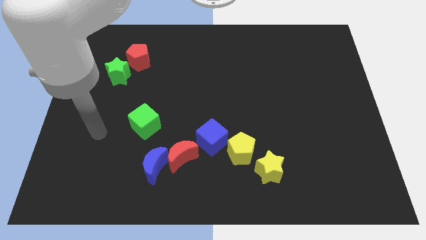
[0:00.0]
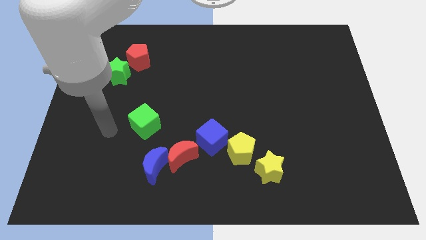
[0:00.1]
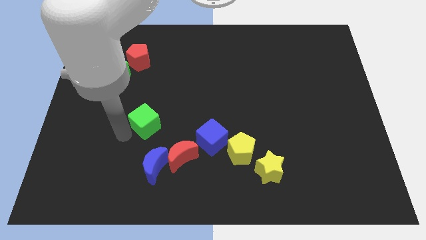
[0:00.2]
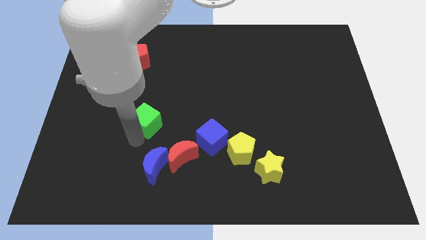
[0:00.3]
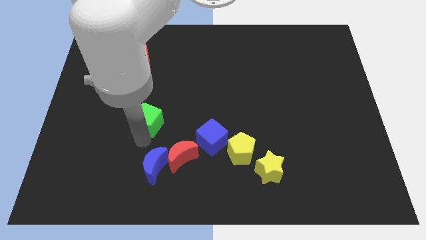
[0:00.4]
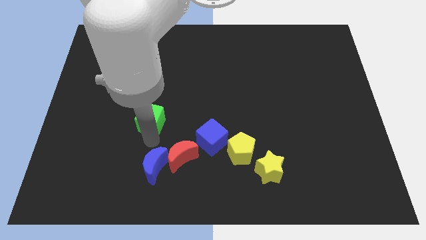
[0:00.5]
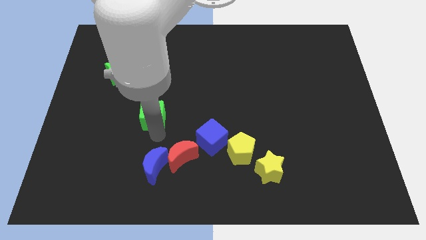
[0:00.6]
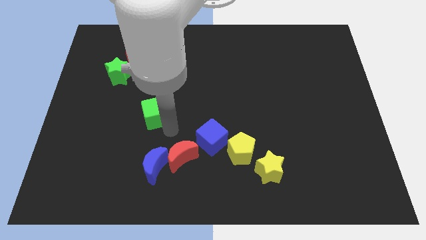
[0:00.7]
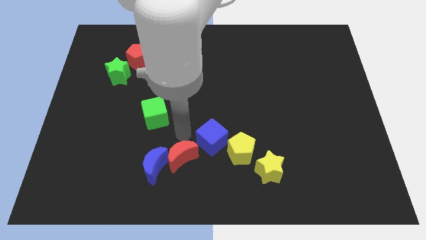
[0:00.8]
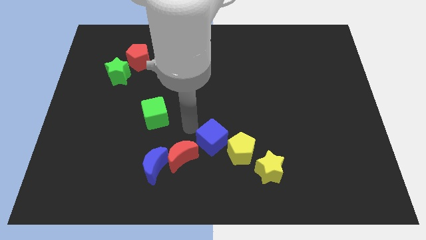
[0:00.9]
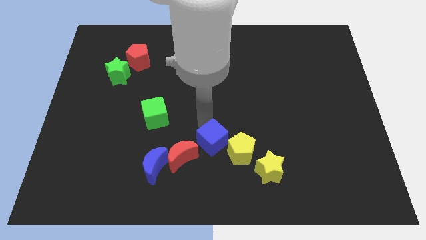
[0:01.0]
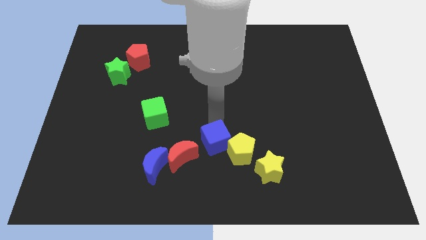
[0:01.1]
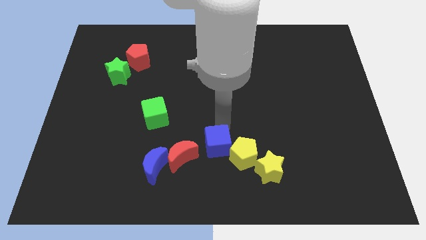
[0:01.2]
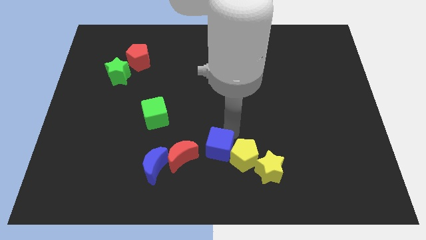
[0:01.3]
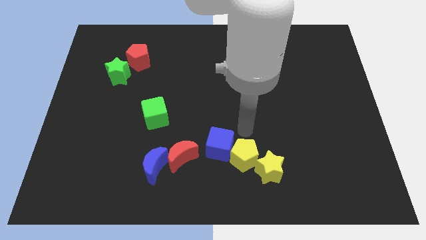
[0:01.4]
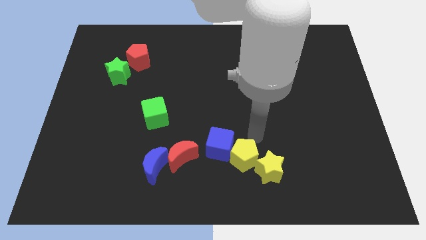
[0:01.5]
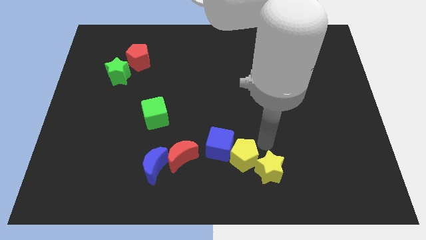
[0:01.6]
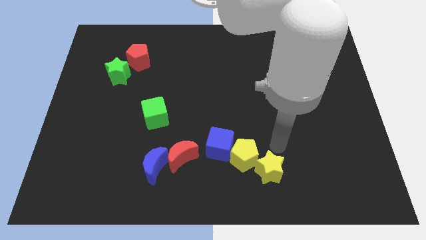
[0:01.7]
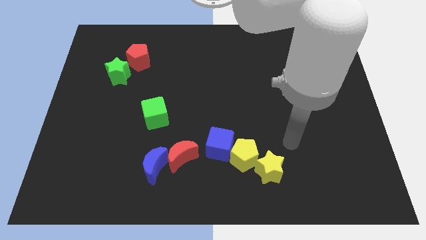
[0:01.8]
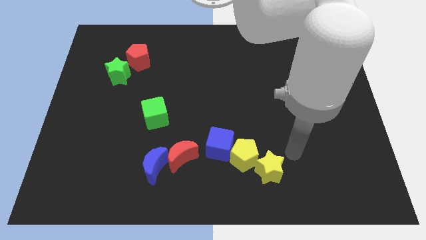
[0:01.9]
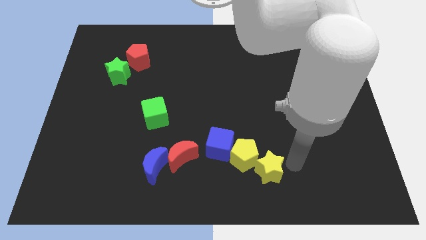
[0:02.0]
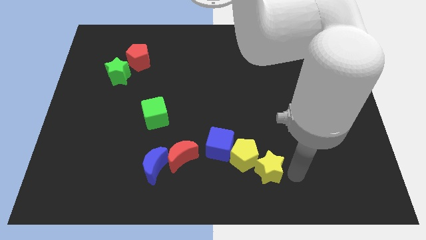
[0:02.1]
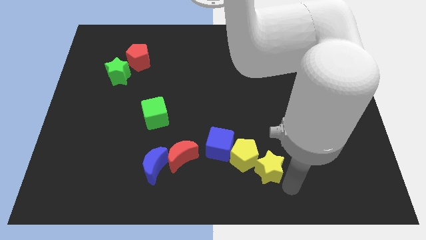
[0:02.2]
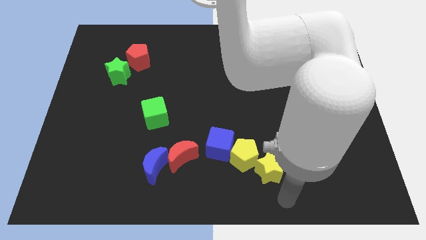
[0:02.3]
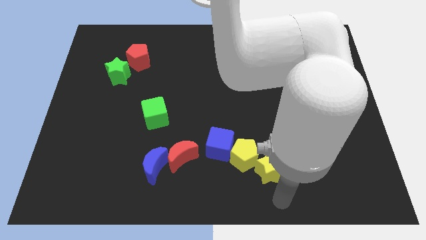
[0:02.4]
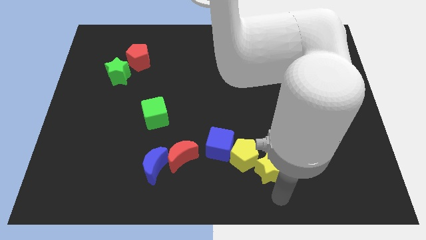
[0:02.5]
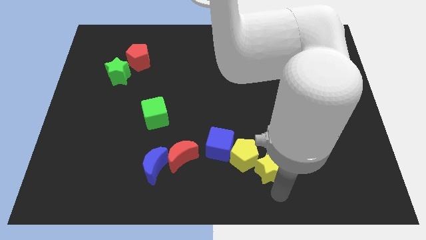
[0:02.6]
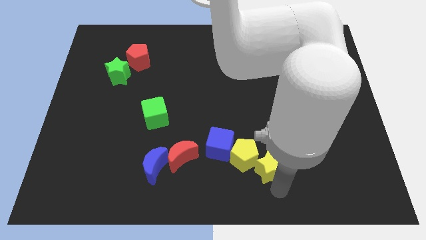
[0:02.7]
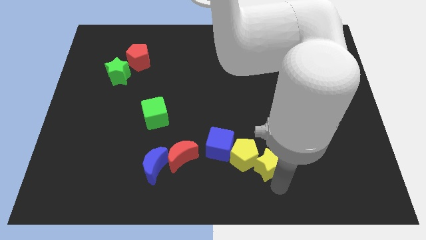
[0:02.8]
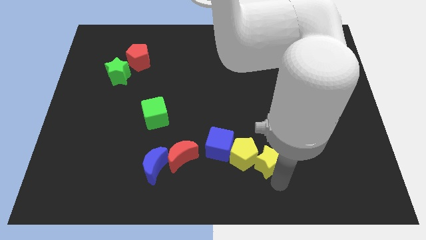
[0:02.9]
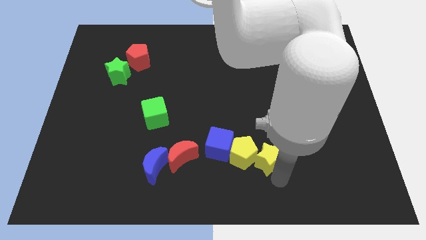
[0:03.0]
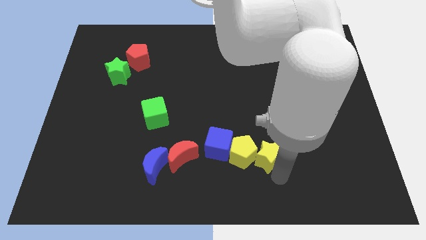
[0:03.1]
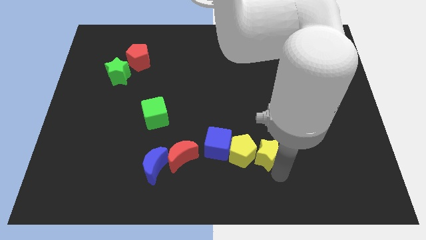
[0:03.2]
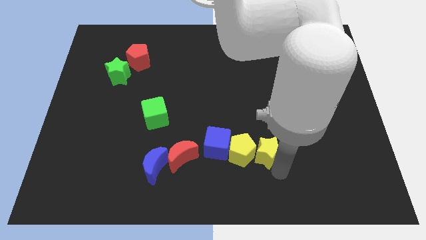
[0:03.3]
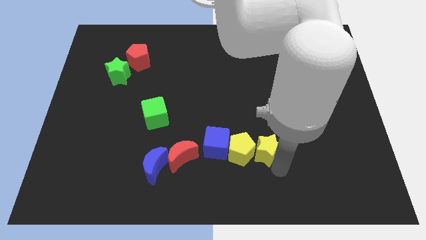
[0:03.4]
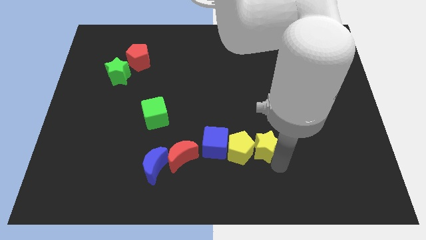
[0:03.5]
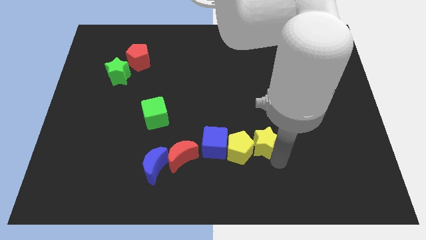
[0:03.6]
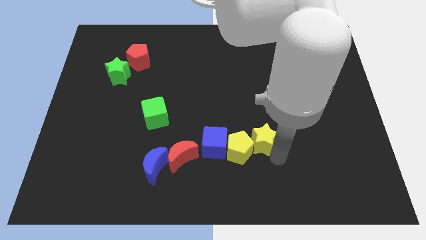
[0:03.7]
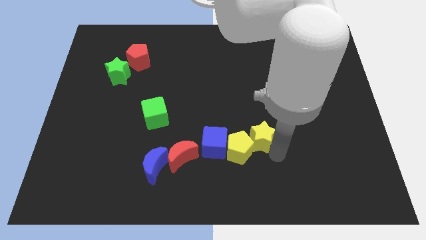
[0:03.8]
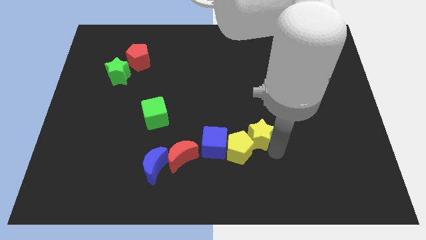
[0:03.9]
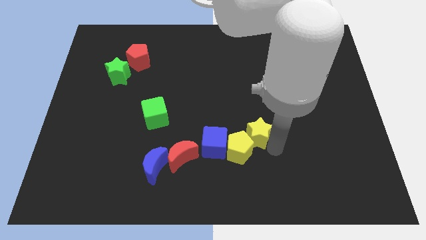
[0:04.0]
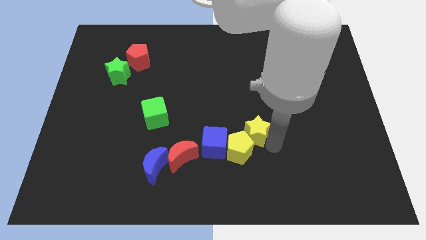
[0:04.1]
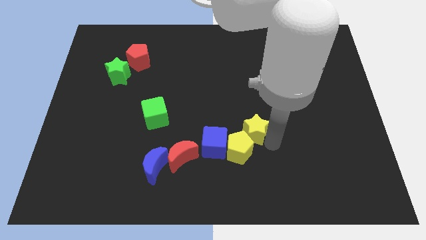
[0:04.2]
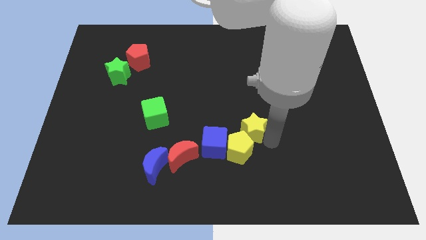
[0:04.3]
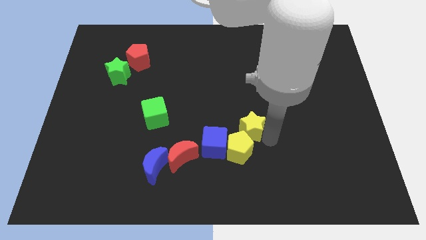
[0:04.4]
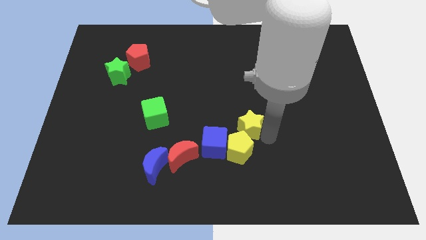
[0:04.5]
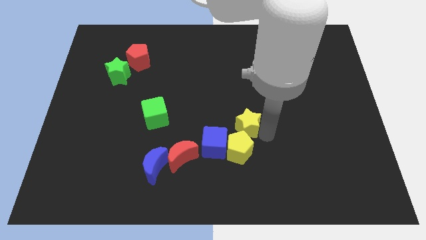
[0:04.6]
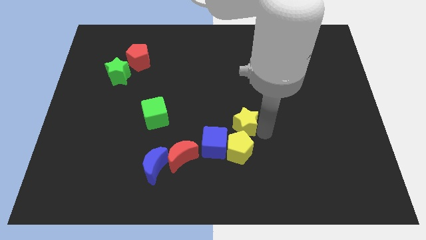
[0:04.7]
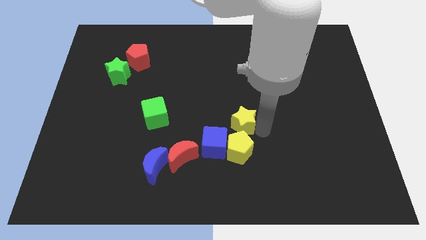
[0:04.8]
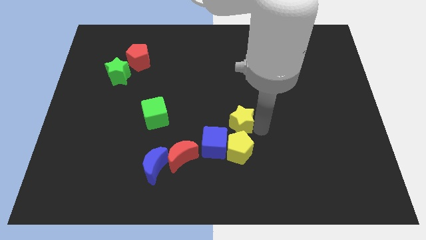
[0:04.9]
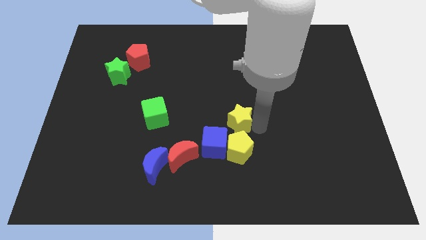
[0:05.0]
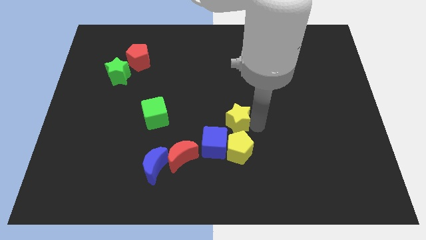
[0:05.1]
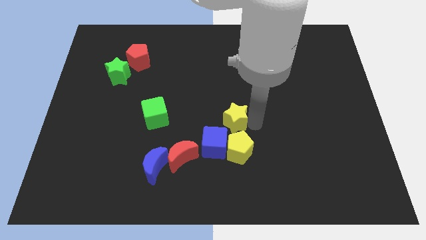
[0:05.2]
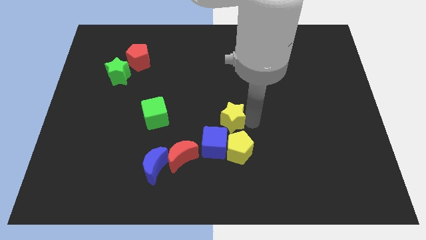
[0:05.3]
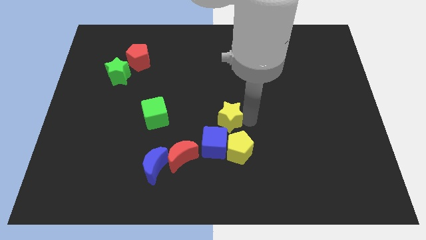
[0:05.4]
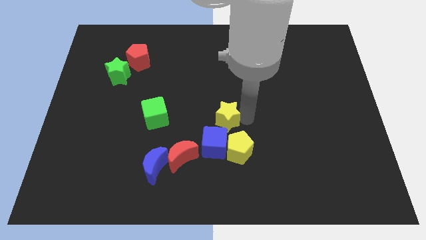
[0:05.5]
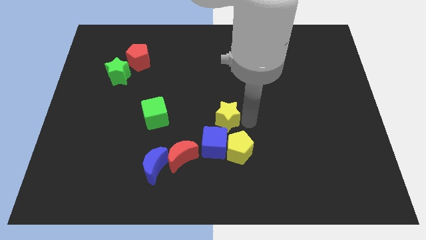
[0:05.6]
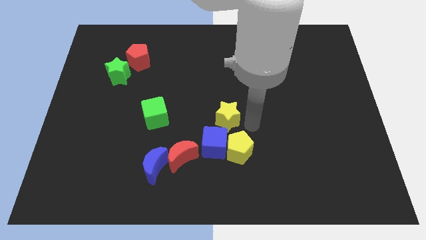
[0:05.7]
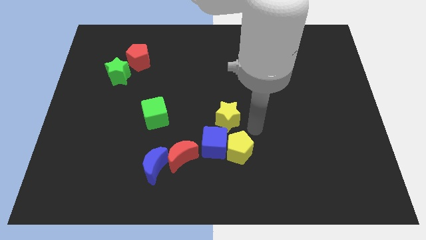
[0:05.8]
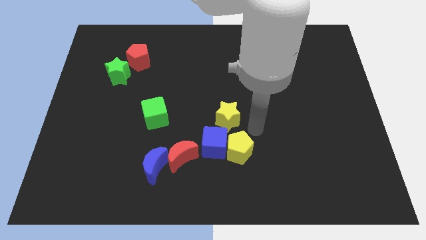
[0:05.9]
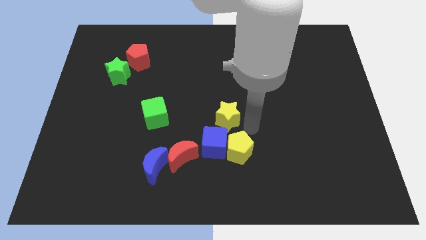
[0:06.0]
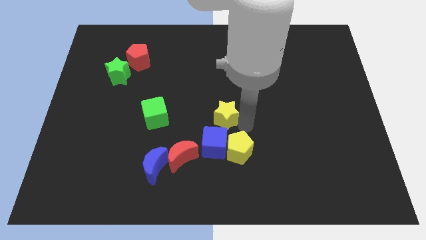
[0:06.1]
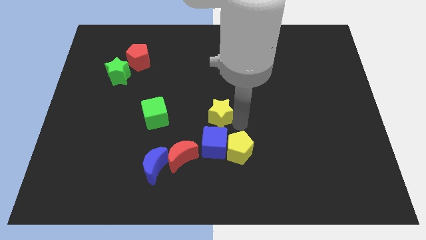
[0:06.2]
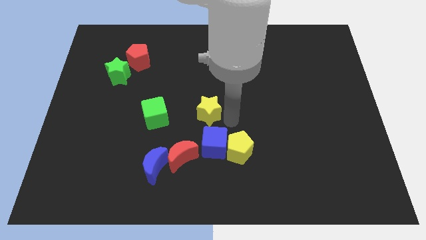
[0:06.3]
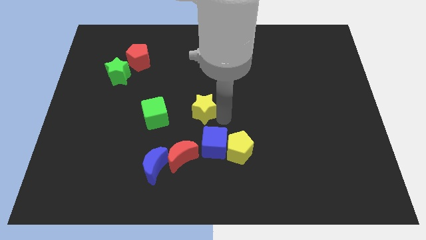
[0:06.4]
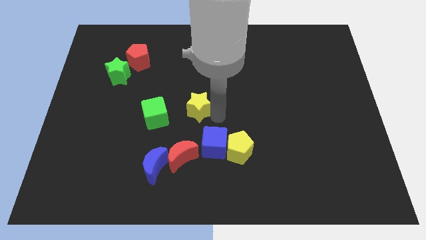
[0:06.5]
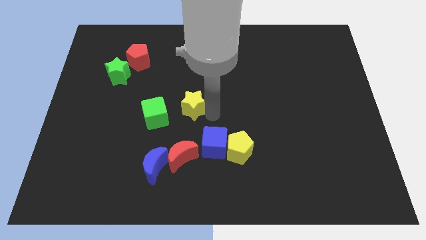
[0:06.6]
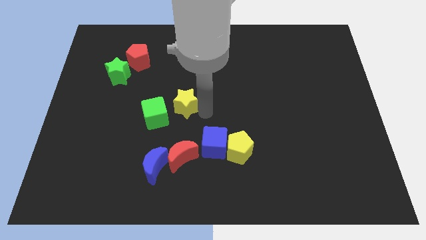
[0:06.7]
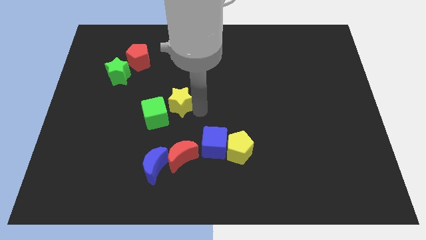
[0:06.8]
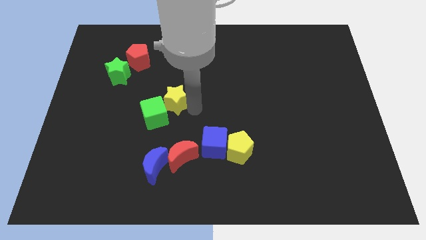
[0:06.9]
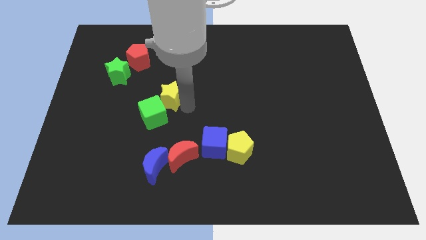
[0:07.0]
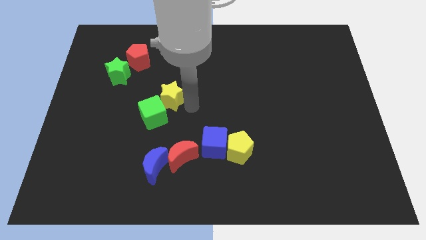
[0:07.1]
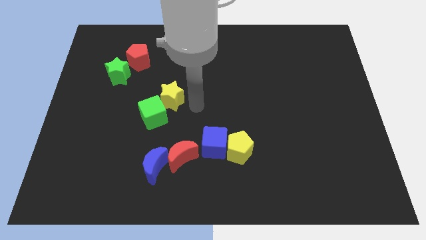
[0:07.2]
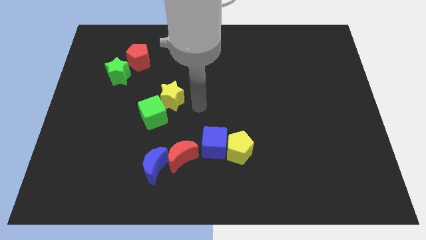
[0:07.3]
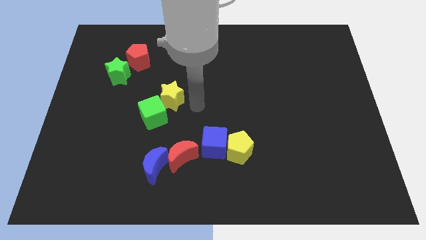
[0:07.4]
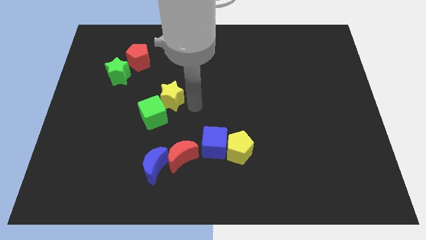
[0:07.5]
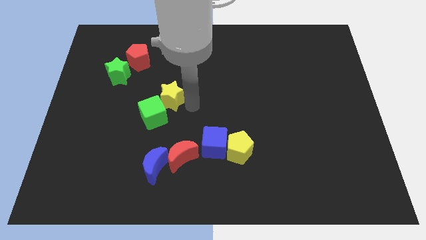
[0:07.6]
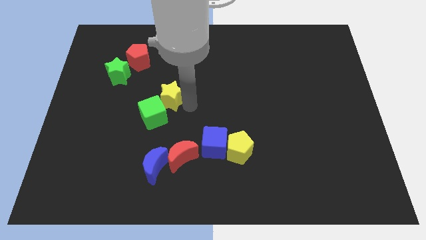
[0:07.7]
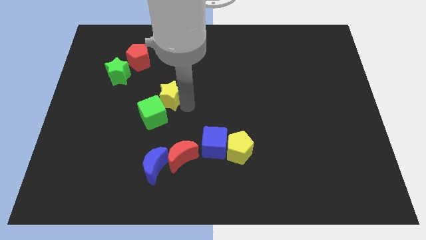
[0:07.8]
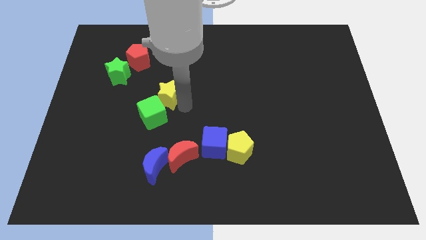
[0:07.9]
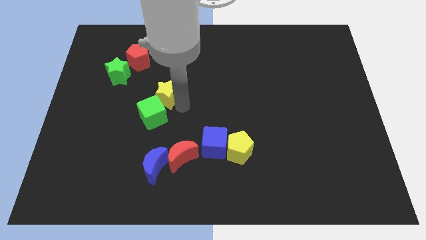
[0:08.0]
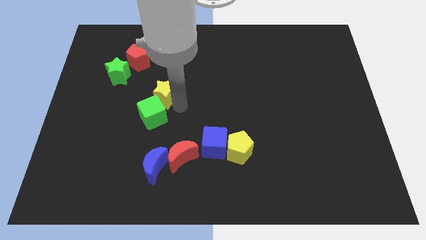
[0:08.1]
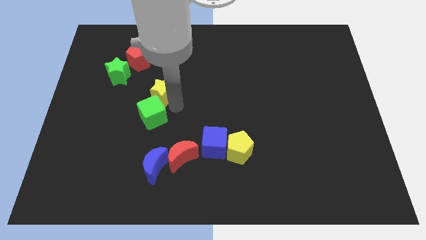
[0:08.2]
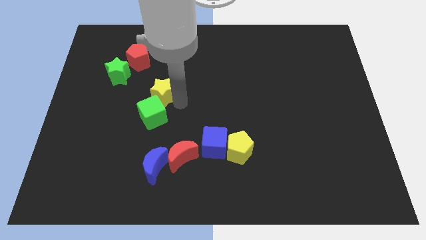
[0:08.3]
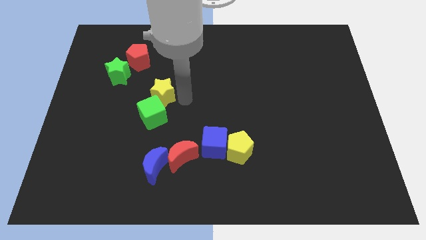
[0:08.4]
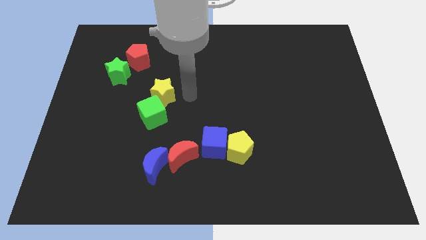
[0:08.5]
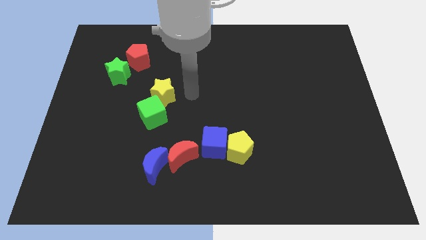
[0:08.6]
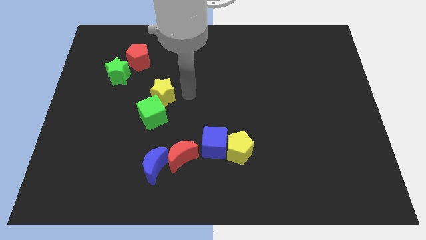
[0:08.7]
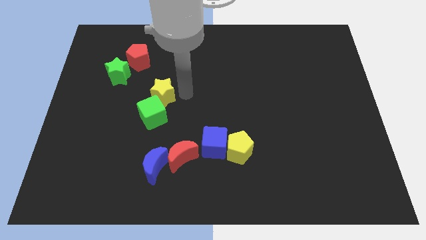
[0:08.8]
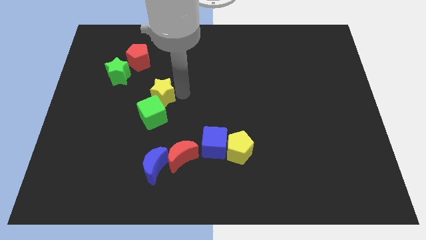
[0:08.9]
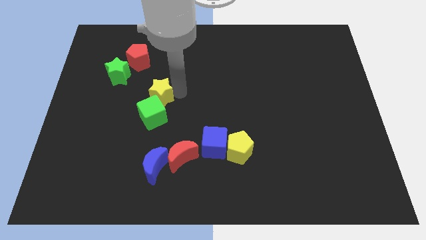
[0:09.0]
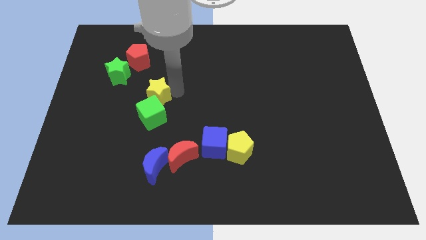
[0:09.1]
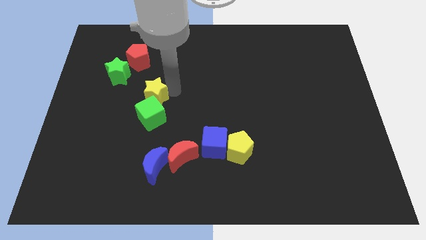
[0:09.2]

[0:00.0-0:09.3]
push the yellow star to the top left of the green cube
